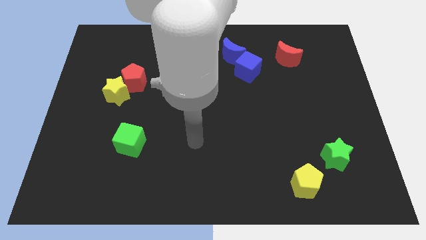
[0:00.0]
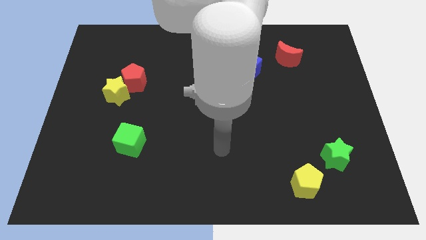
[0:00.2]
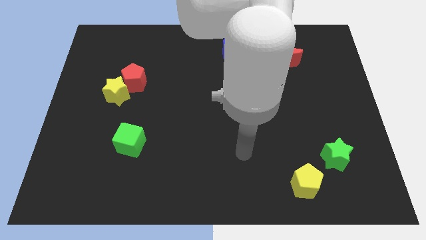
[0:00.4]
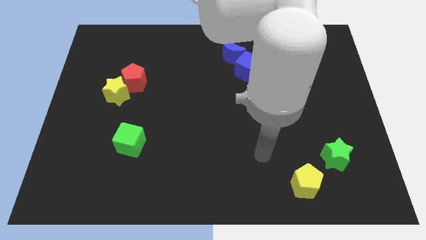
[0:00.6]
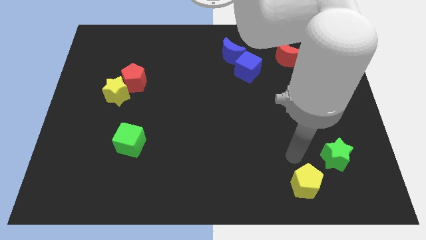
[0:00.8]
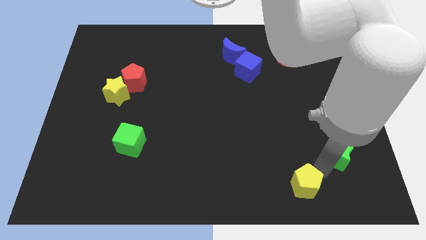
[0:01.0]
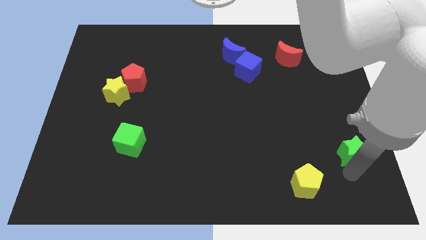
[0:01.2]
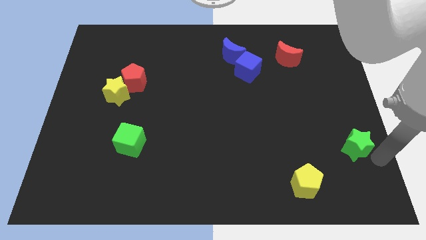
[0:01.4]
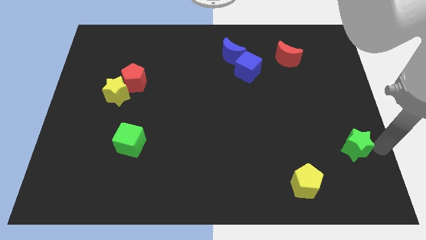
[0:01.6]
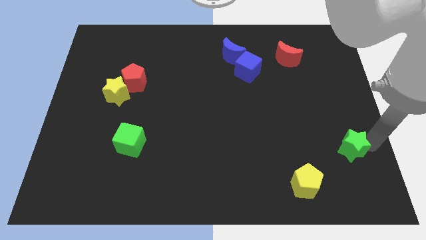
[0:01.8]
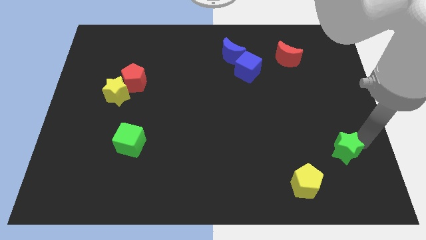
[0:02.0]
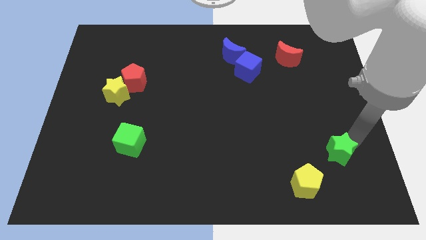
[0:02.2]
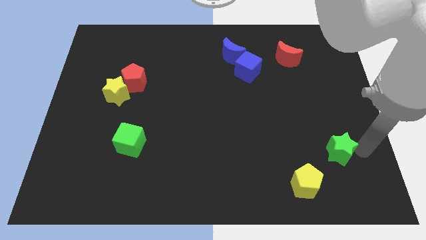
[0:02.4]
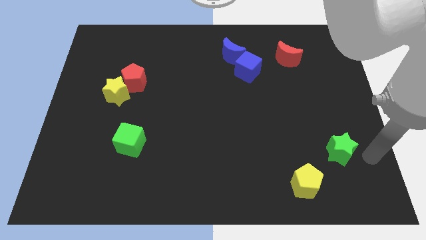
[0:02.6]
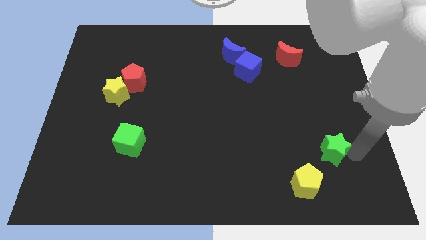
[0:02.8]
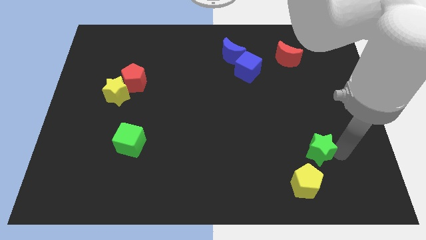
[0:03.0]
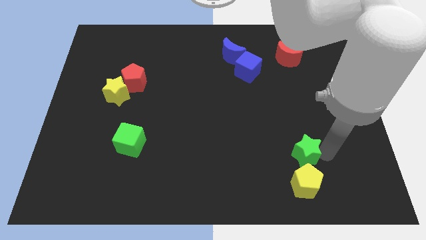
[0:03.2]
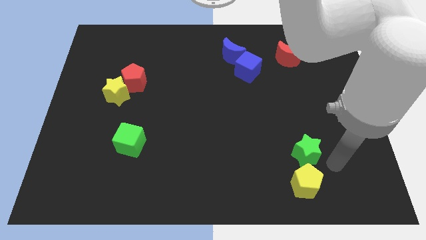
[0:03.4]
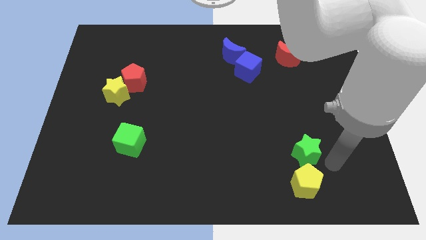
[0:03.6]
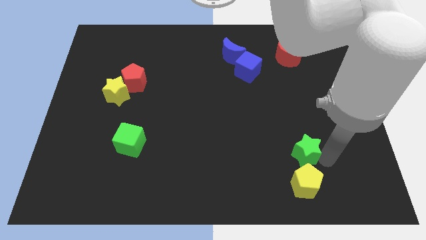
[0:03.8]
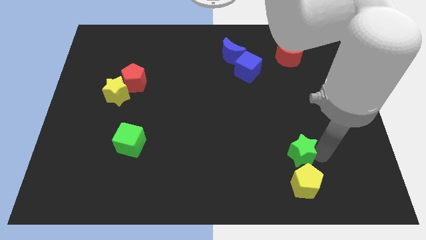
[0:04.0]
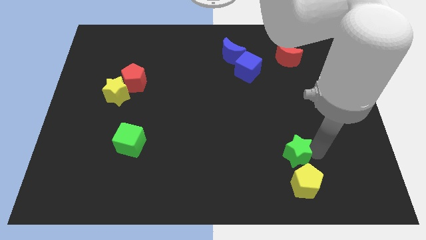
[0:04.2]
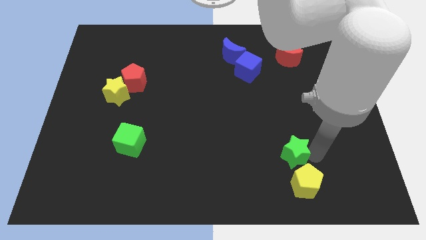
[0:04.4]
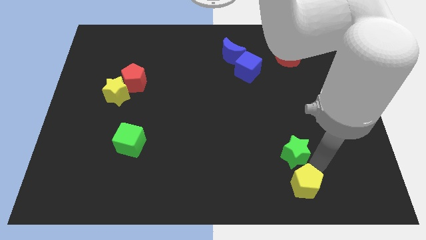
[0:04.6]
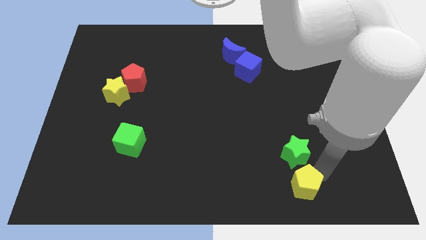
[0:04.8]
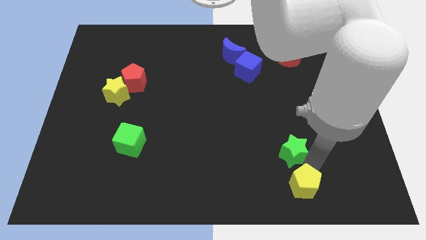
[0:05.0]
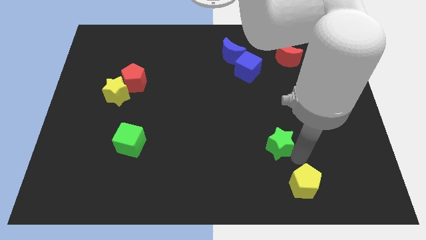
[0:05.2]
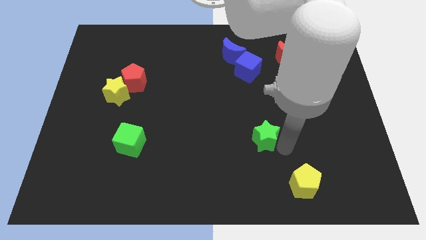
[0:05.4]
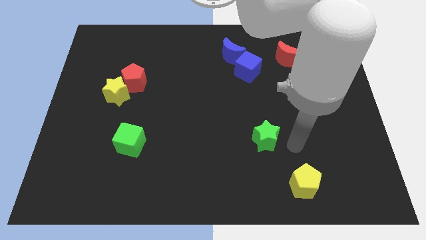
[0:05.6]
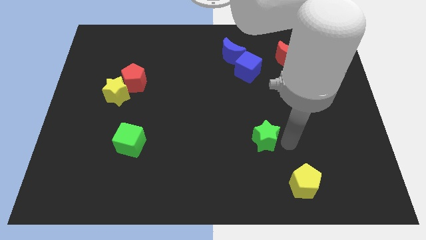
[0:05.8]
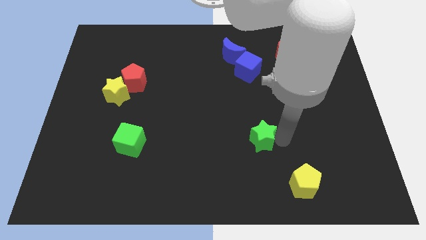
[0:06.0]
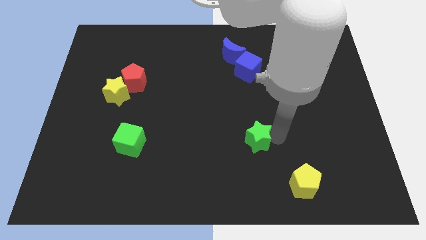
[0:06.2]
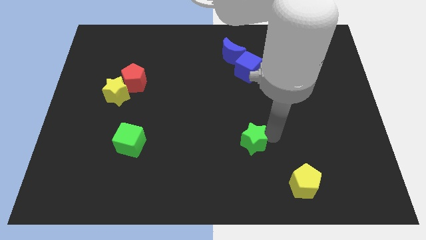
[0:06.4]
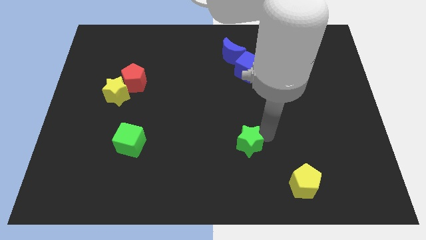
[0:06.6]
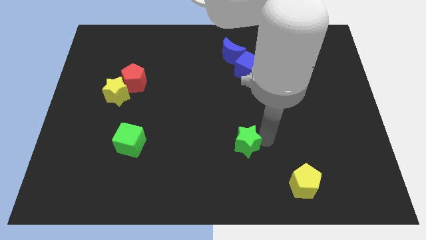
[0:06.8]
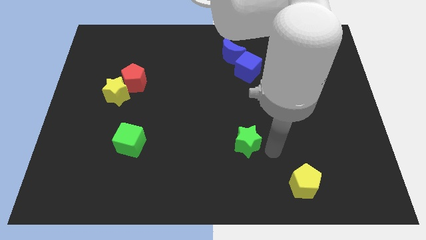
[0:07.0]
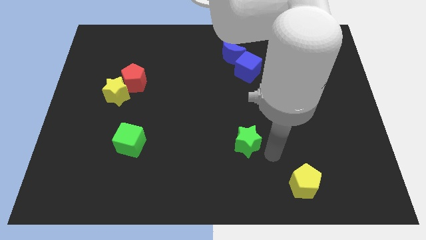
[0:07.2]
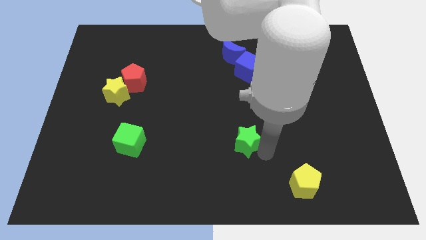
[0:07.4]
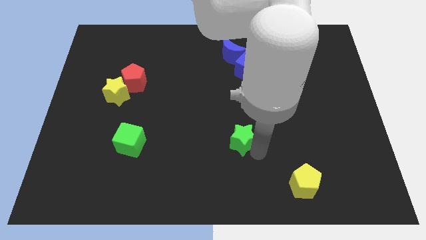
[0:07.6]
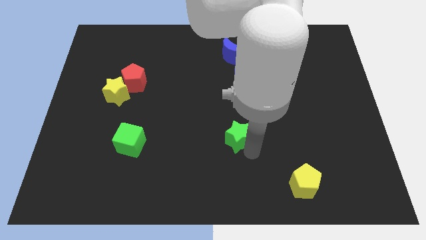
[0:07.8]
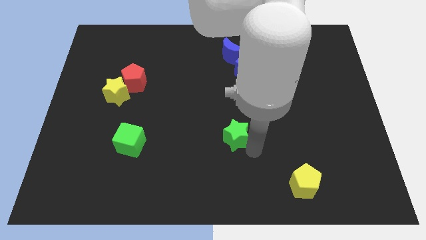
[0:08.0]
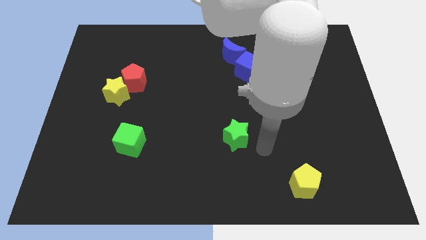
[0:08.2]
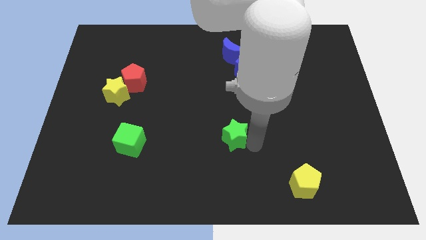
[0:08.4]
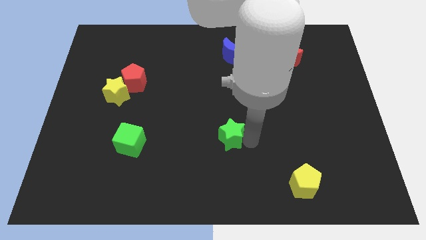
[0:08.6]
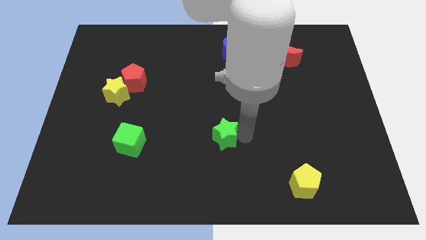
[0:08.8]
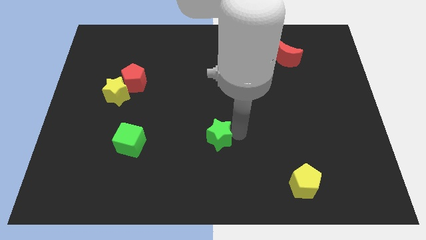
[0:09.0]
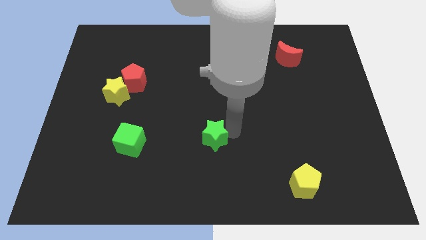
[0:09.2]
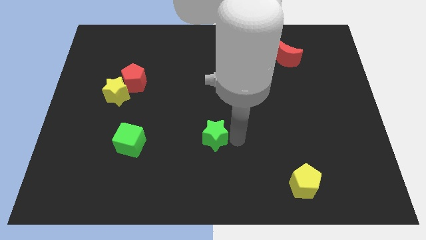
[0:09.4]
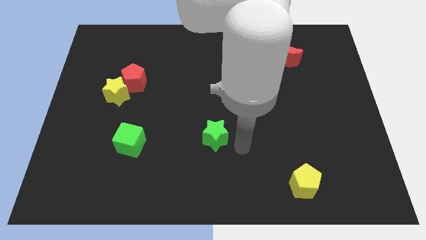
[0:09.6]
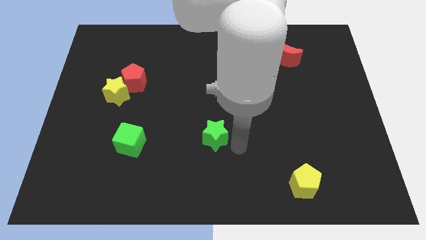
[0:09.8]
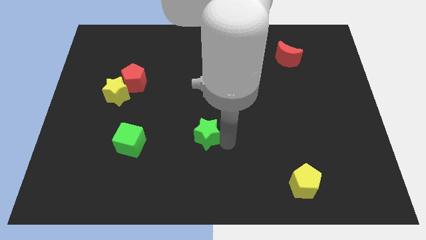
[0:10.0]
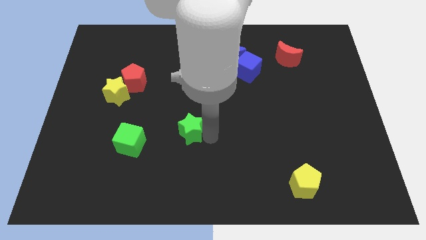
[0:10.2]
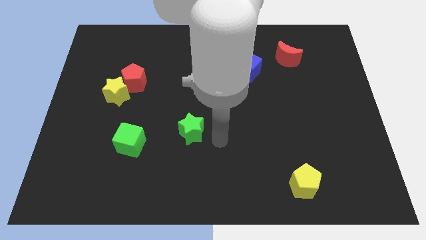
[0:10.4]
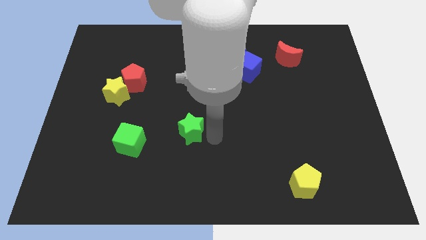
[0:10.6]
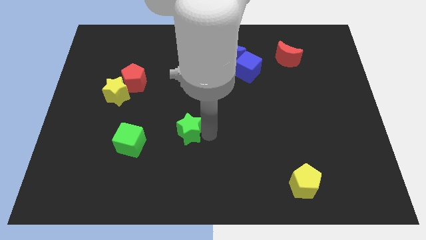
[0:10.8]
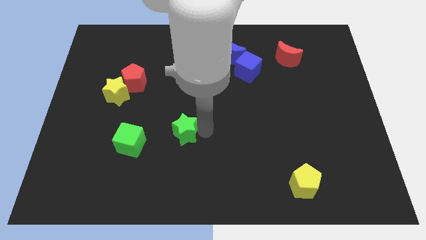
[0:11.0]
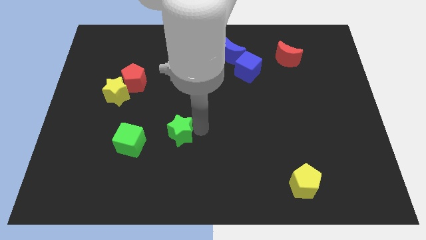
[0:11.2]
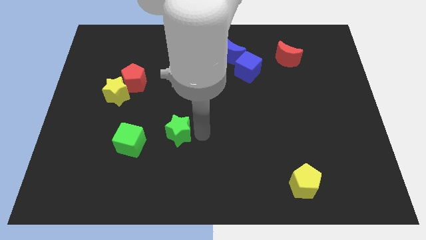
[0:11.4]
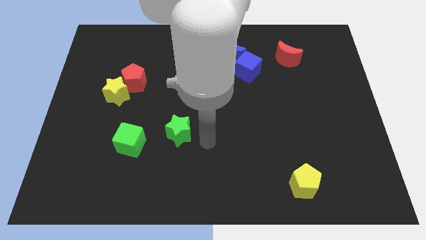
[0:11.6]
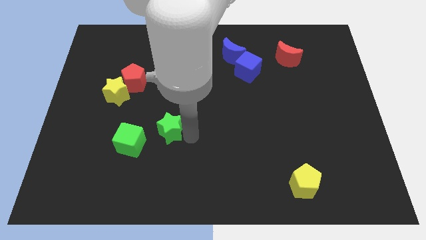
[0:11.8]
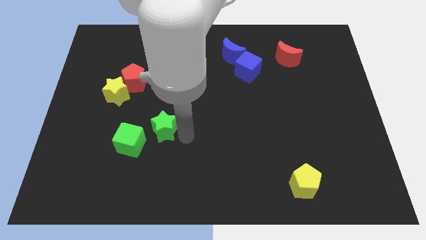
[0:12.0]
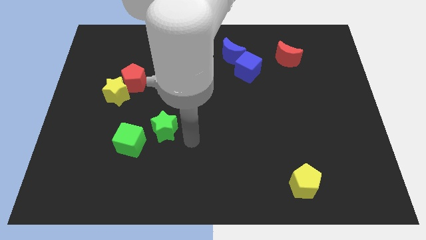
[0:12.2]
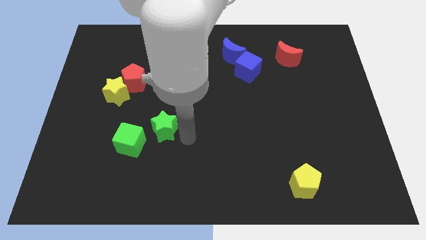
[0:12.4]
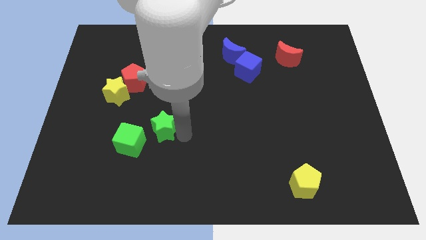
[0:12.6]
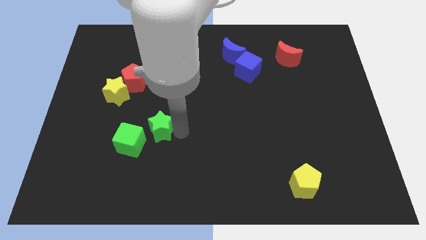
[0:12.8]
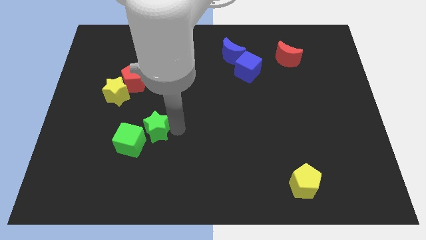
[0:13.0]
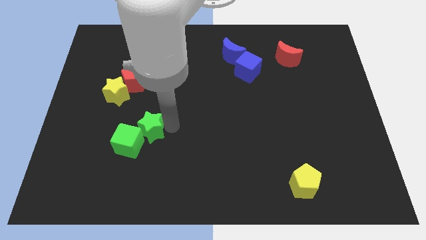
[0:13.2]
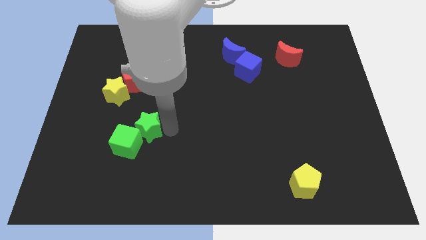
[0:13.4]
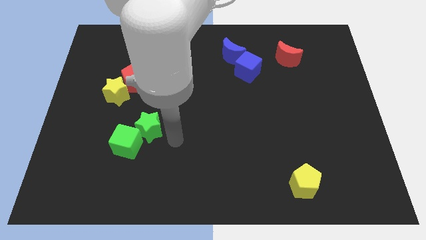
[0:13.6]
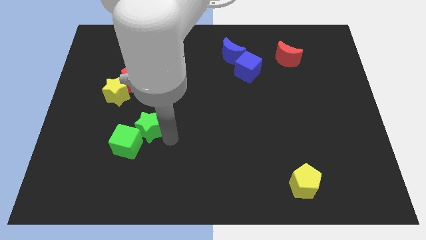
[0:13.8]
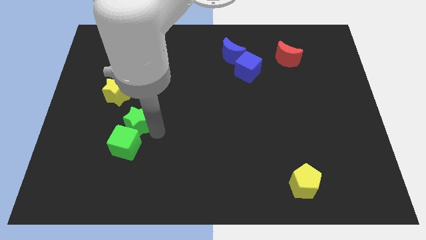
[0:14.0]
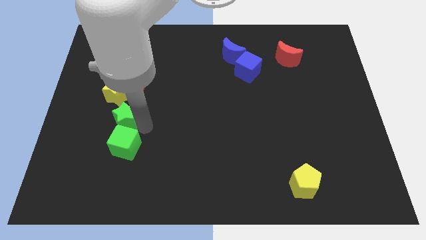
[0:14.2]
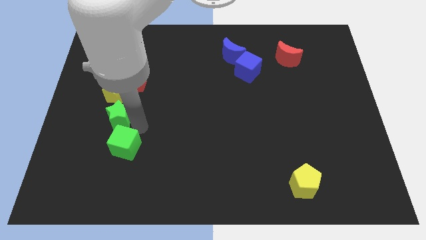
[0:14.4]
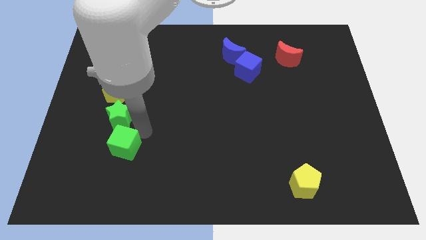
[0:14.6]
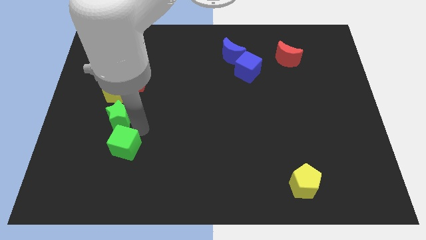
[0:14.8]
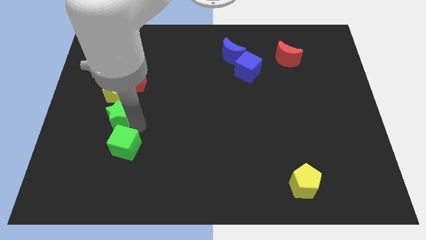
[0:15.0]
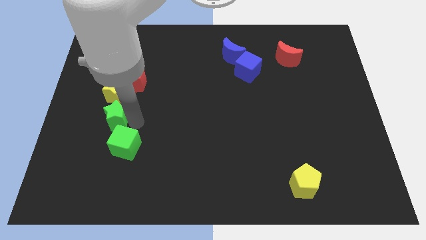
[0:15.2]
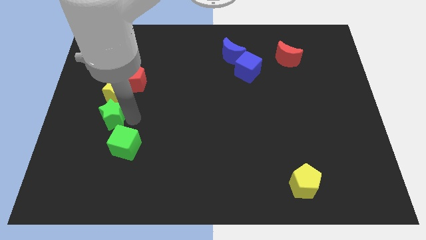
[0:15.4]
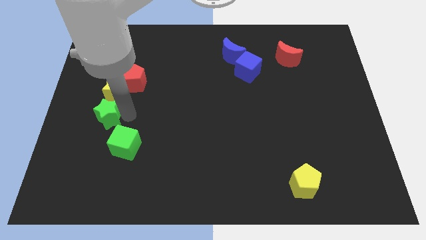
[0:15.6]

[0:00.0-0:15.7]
move the green star to the bottom left side of the yellow star
